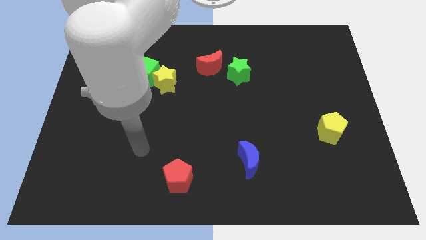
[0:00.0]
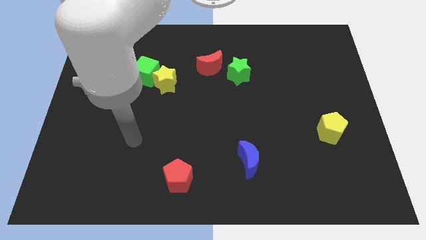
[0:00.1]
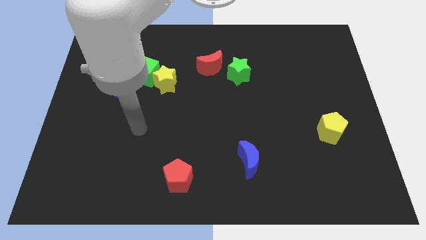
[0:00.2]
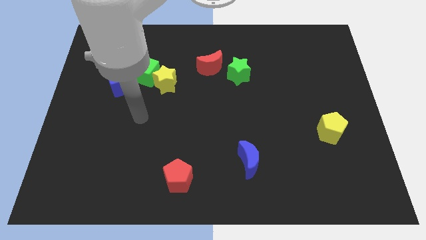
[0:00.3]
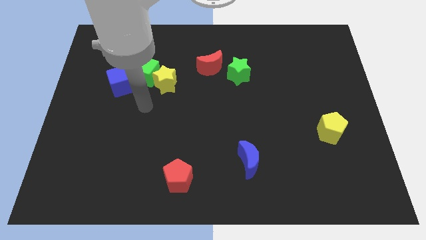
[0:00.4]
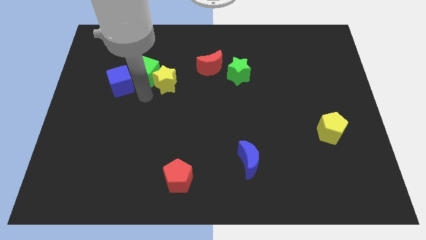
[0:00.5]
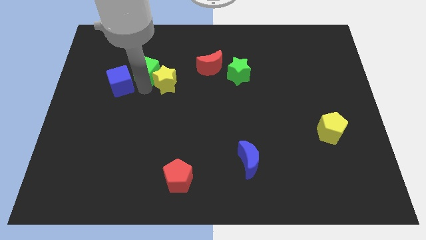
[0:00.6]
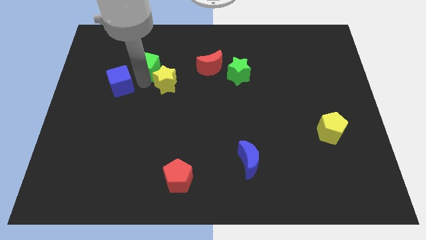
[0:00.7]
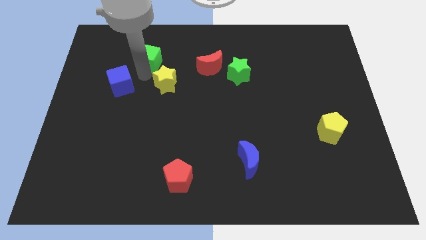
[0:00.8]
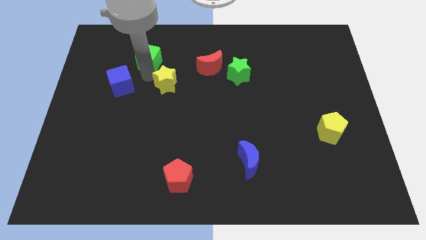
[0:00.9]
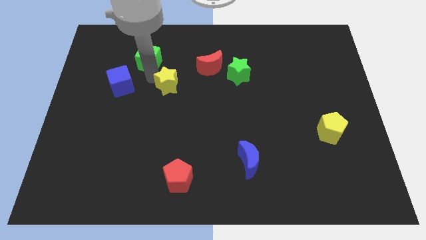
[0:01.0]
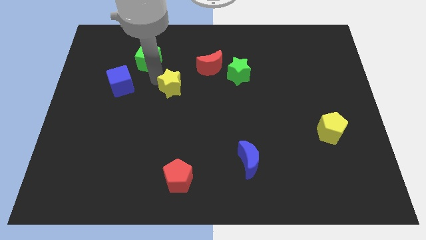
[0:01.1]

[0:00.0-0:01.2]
move the yellow star away from the green cube

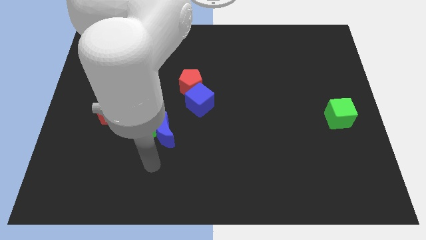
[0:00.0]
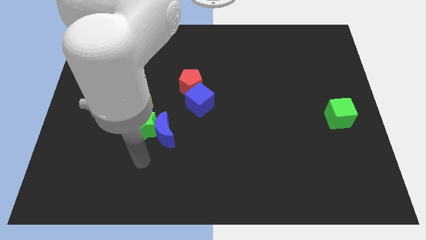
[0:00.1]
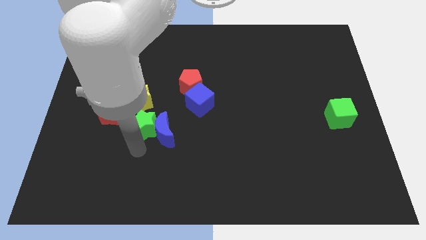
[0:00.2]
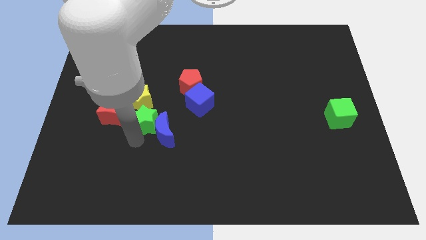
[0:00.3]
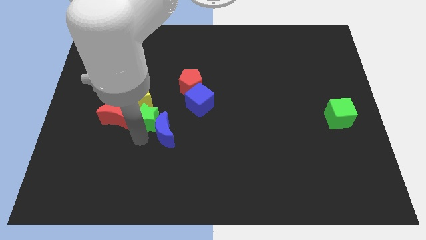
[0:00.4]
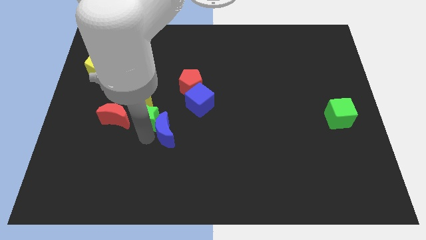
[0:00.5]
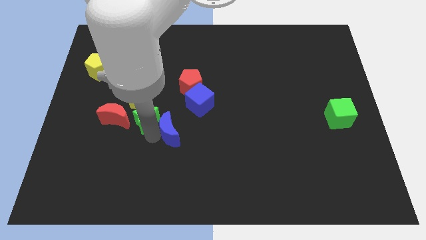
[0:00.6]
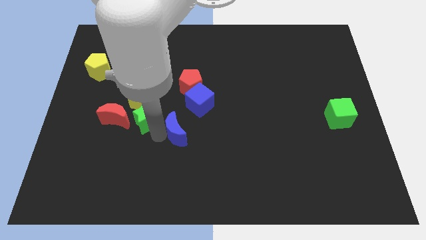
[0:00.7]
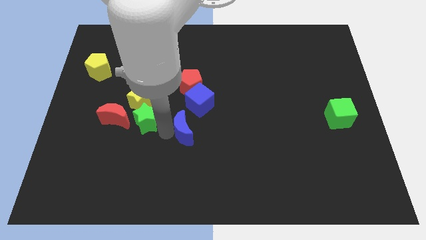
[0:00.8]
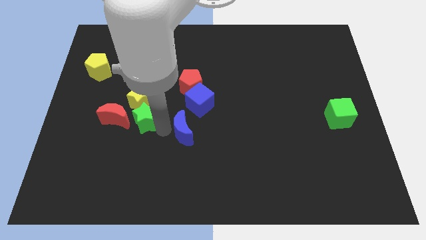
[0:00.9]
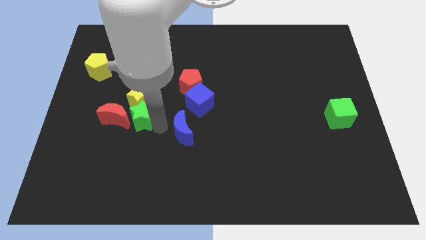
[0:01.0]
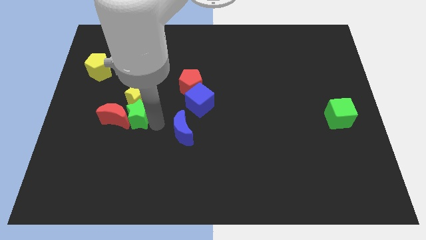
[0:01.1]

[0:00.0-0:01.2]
pull the blue moon apart from the green star

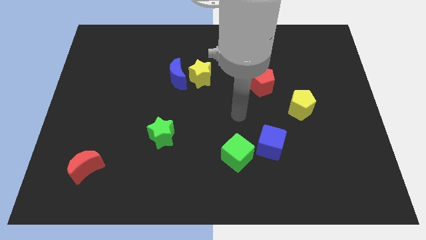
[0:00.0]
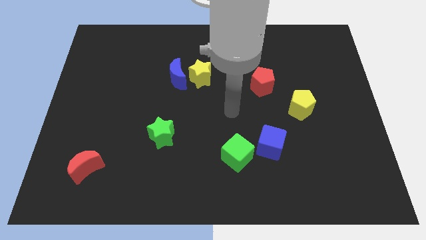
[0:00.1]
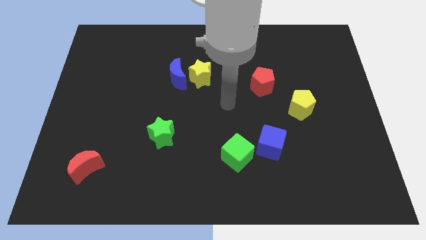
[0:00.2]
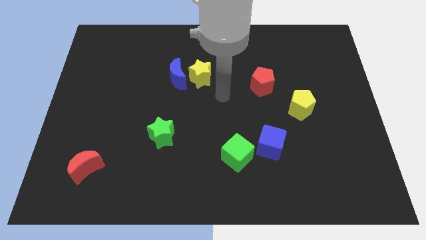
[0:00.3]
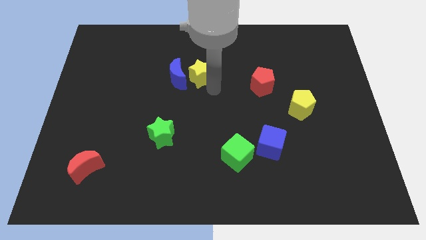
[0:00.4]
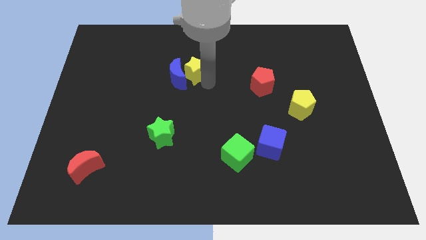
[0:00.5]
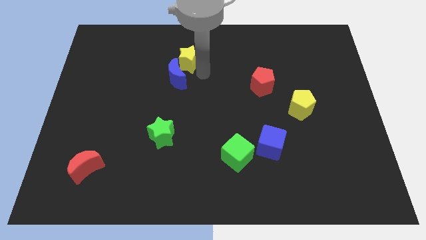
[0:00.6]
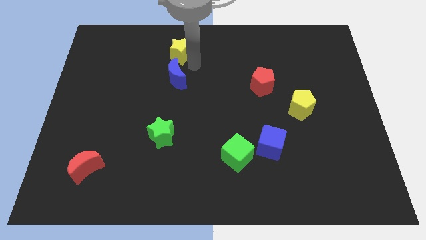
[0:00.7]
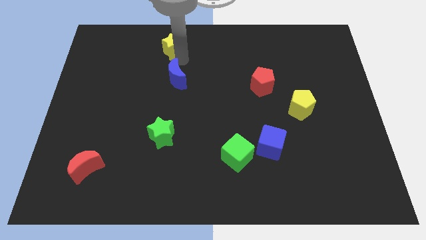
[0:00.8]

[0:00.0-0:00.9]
separate the blue moon from the yellow star

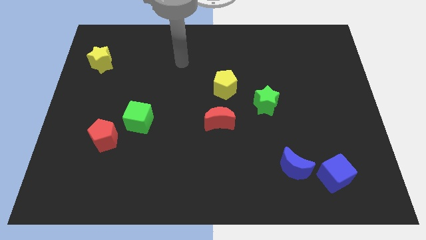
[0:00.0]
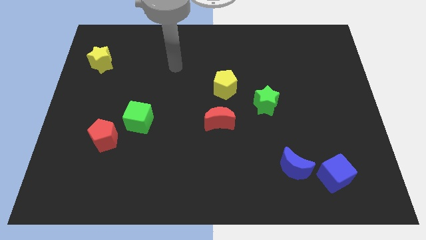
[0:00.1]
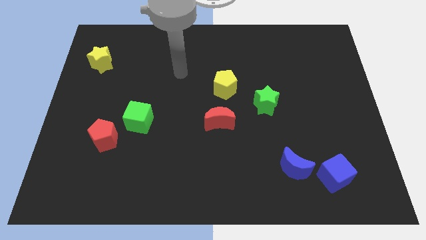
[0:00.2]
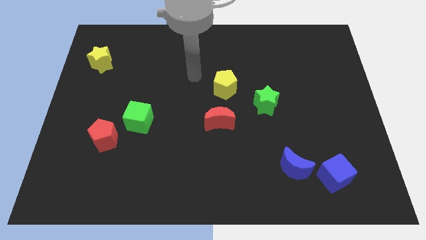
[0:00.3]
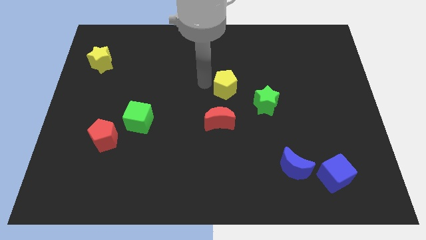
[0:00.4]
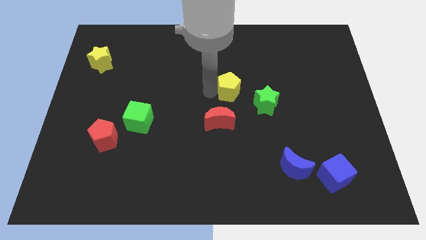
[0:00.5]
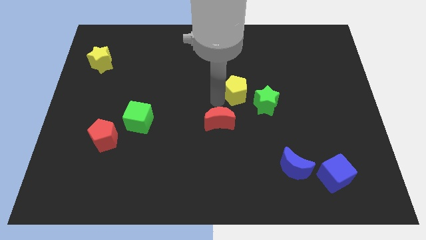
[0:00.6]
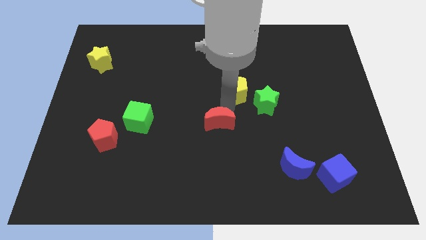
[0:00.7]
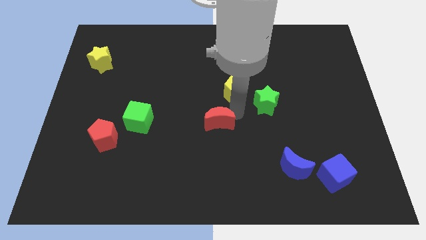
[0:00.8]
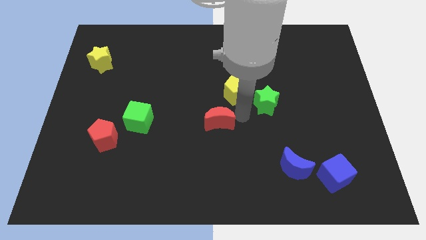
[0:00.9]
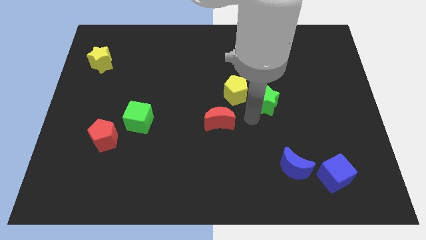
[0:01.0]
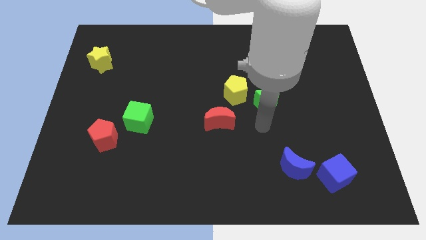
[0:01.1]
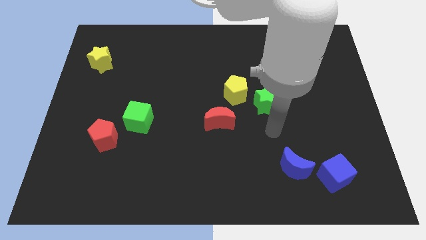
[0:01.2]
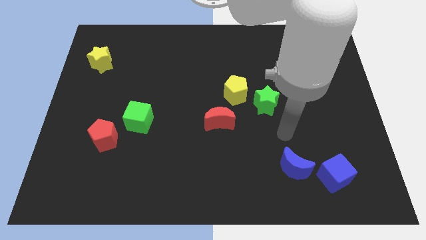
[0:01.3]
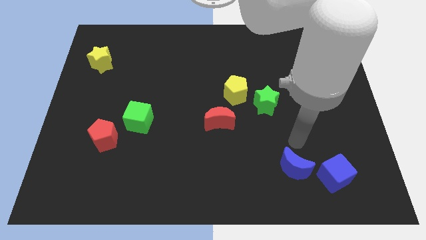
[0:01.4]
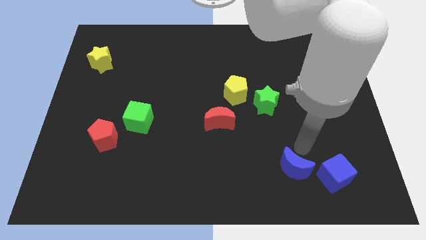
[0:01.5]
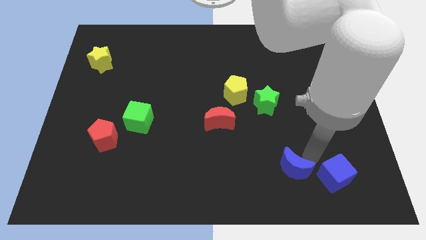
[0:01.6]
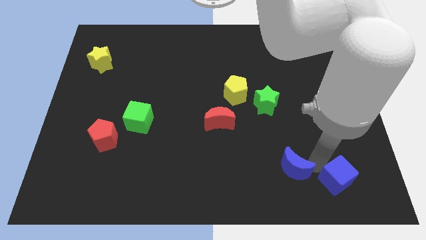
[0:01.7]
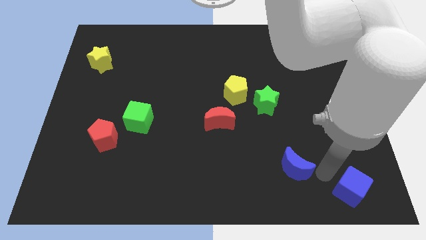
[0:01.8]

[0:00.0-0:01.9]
separate the blue moon from the blue cube

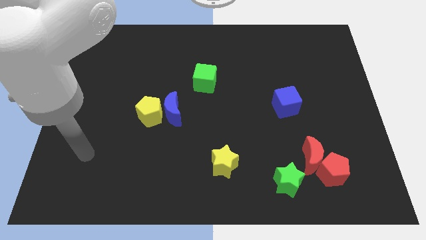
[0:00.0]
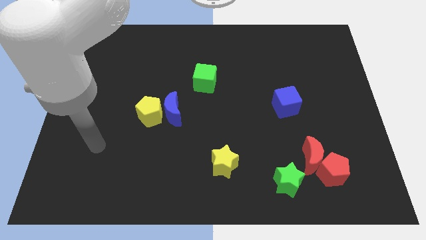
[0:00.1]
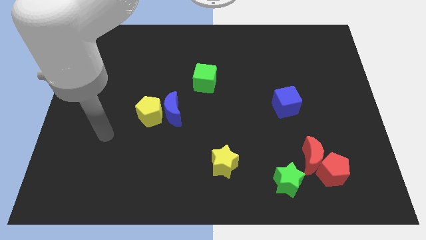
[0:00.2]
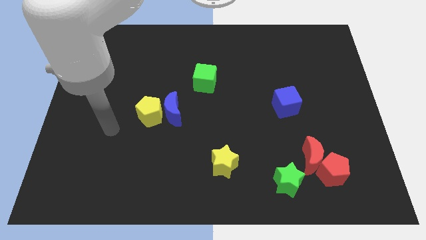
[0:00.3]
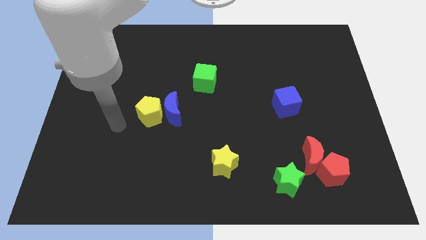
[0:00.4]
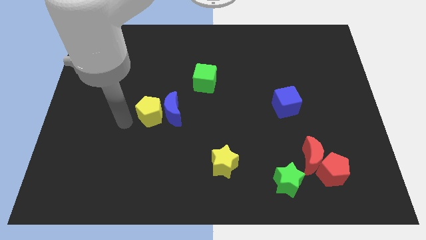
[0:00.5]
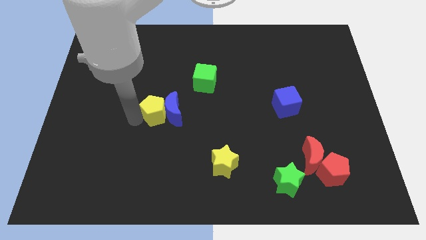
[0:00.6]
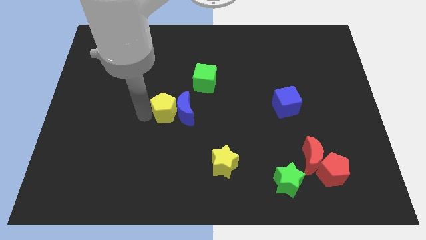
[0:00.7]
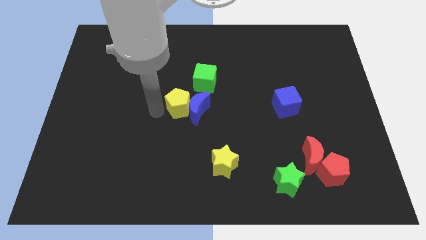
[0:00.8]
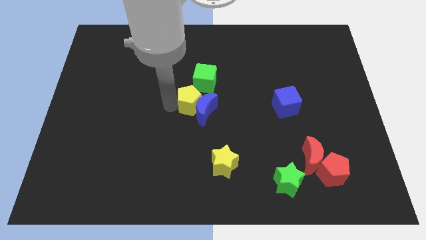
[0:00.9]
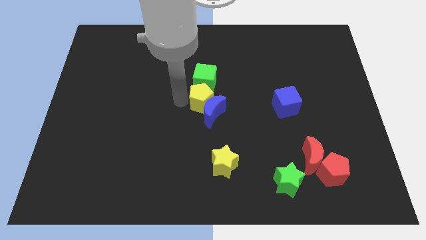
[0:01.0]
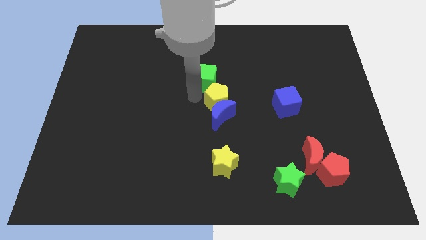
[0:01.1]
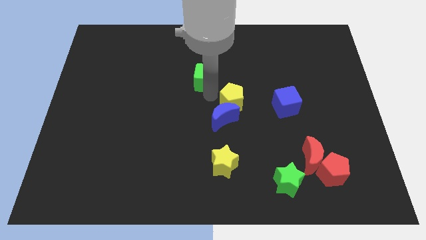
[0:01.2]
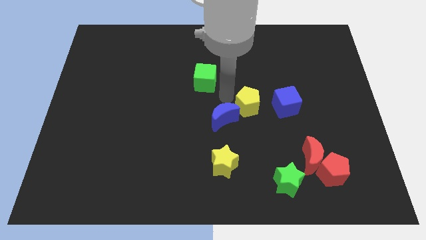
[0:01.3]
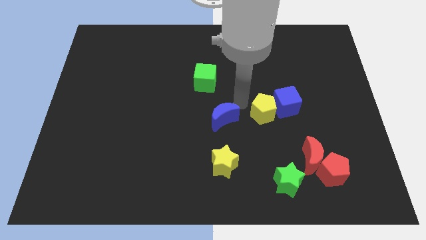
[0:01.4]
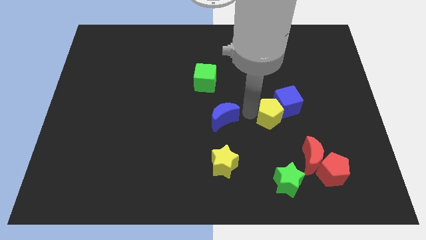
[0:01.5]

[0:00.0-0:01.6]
separate the blue moon from the yellow pentagon

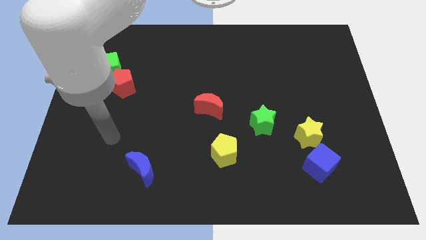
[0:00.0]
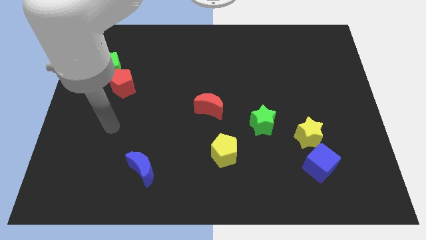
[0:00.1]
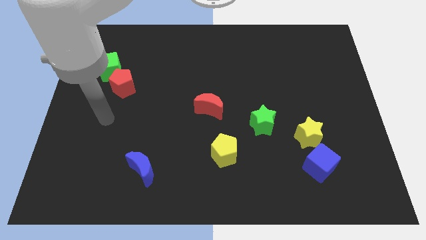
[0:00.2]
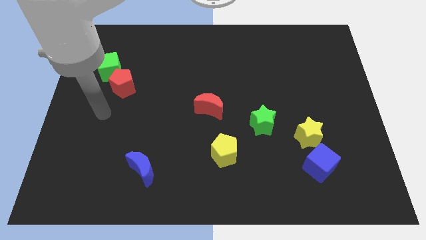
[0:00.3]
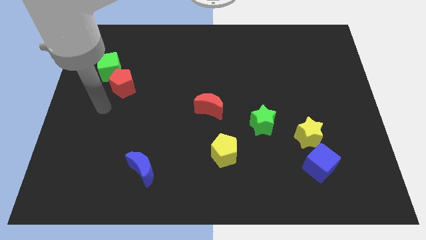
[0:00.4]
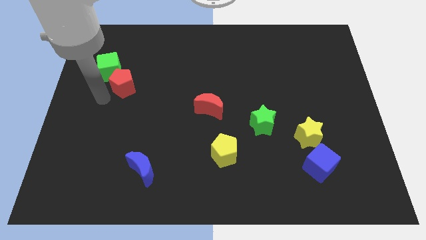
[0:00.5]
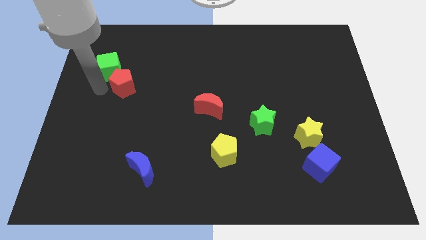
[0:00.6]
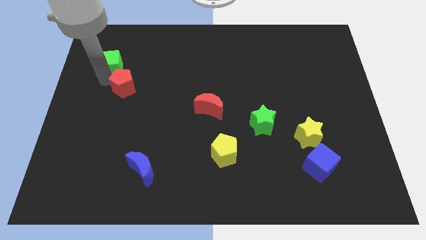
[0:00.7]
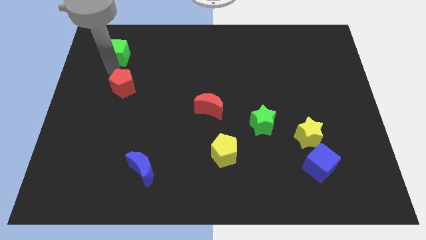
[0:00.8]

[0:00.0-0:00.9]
move the red pentagon away from the green cube

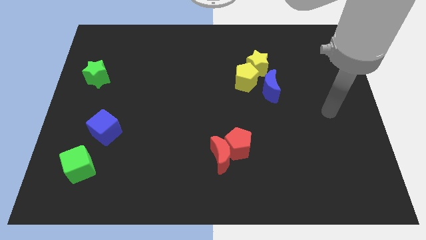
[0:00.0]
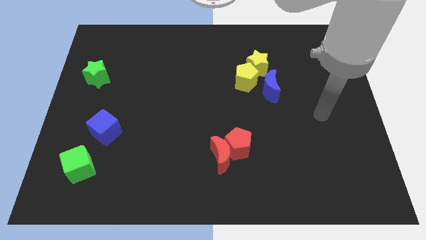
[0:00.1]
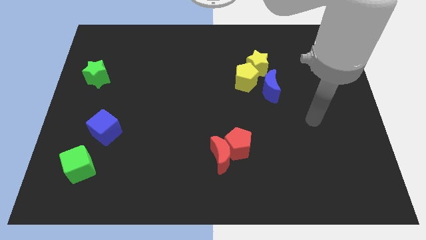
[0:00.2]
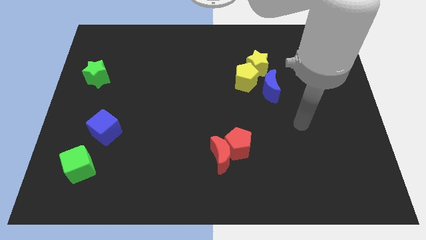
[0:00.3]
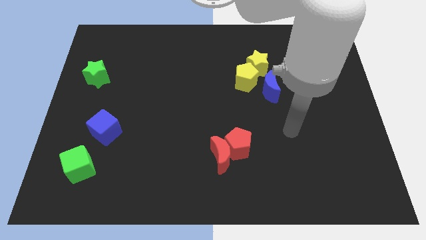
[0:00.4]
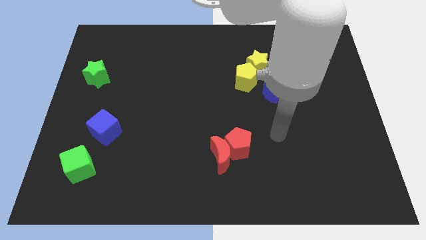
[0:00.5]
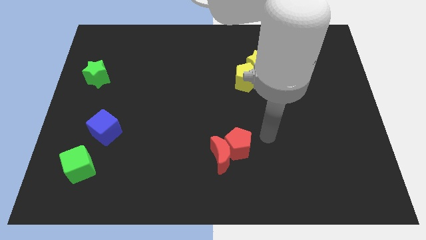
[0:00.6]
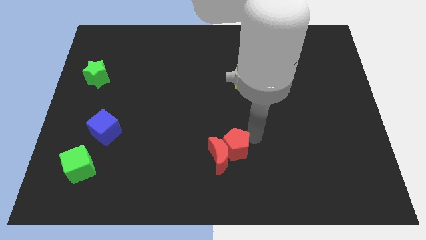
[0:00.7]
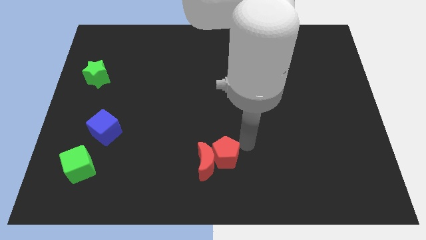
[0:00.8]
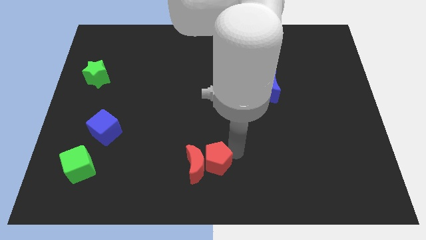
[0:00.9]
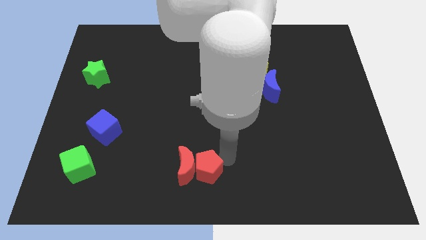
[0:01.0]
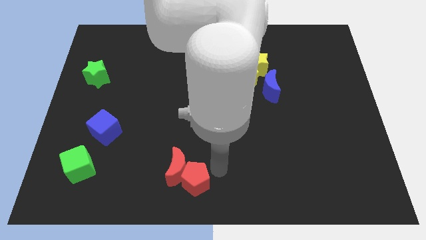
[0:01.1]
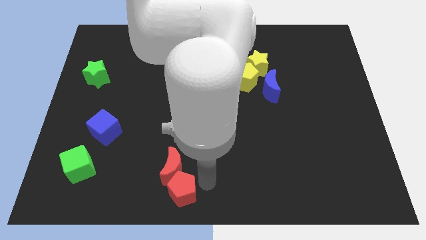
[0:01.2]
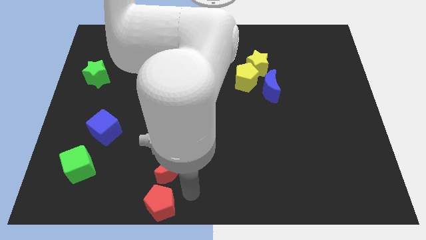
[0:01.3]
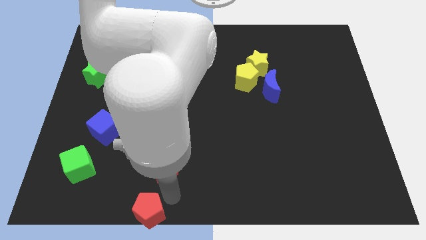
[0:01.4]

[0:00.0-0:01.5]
pull the red moon apart from the red pentagon

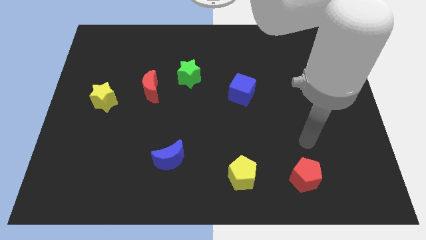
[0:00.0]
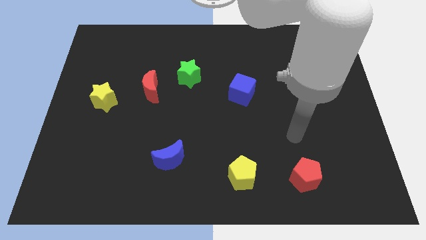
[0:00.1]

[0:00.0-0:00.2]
move the red moon away from the green star
